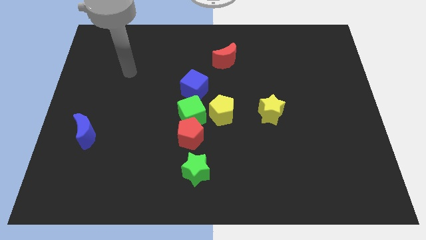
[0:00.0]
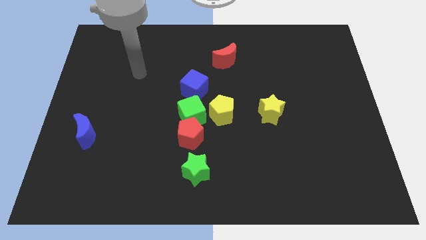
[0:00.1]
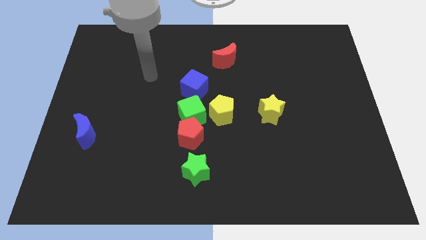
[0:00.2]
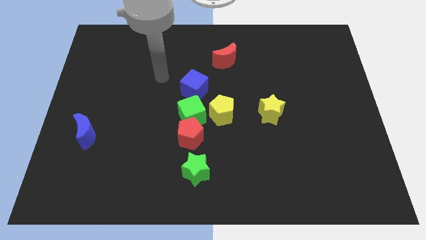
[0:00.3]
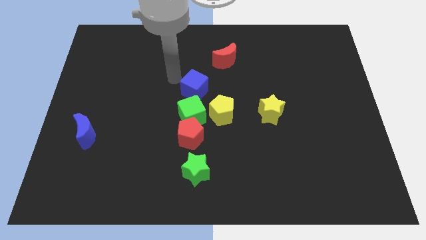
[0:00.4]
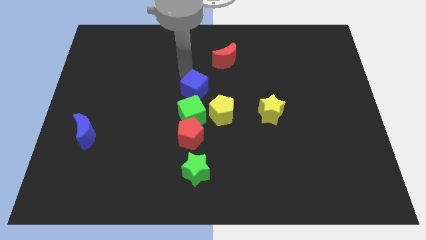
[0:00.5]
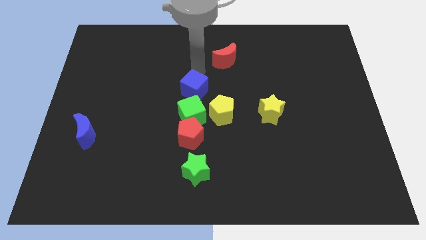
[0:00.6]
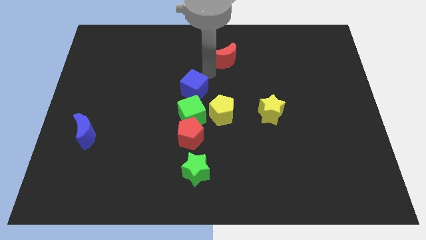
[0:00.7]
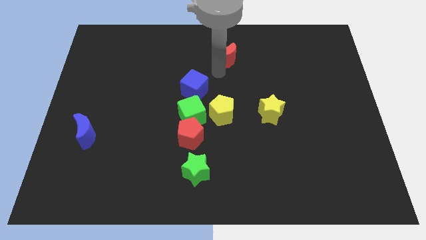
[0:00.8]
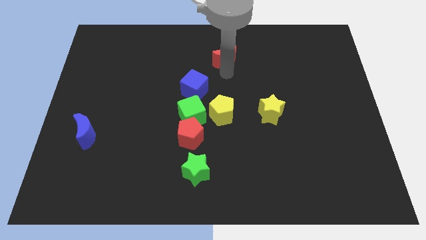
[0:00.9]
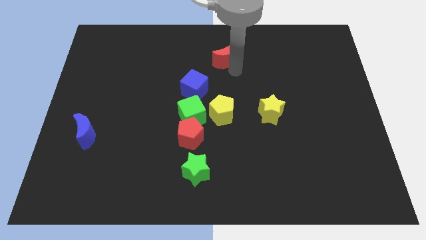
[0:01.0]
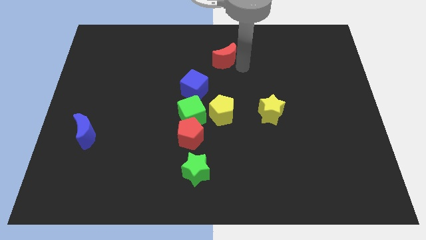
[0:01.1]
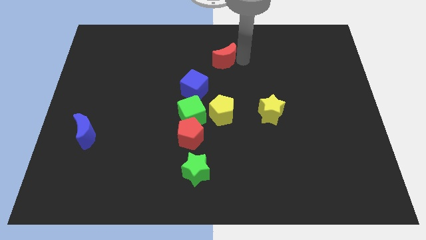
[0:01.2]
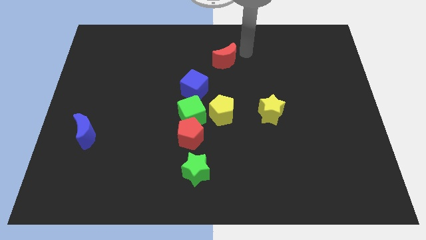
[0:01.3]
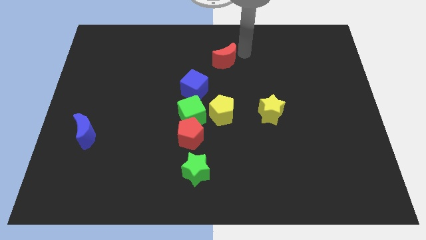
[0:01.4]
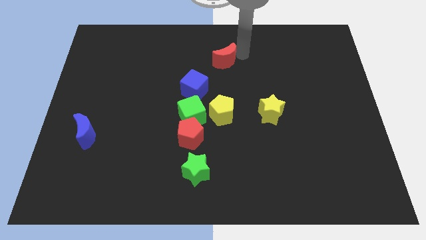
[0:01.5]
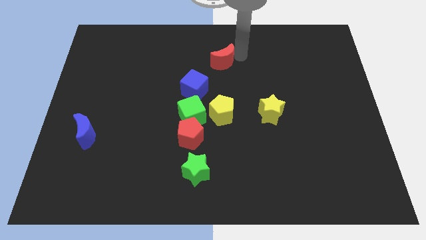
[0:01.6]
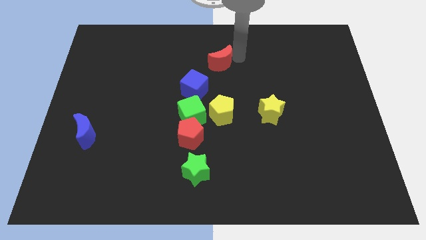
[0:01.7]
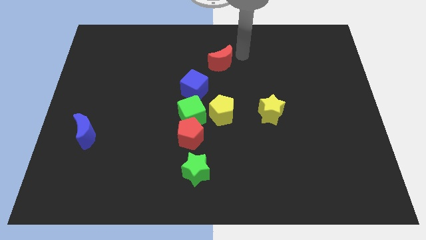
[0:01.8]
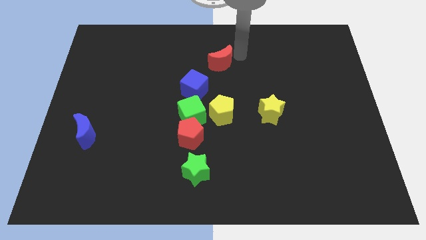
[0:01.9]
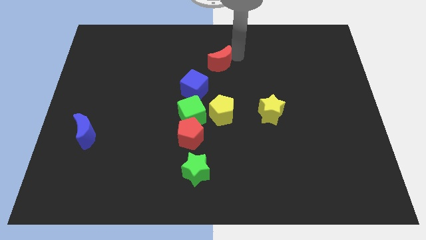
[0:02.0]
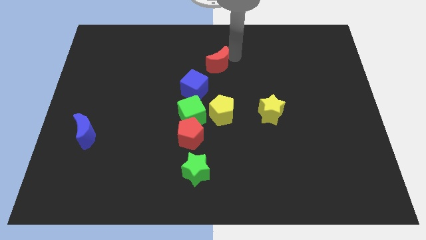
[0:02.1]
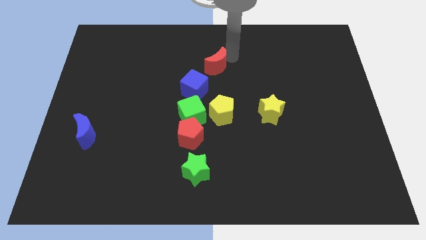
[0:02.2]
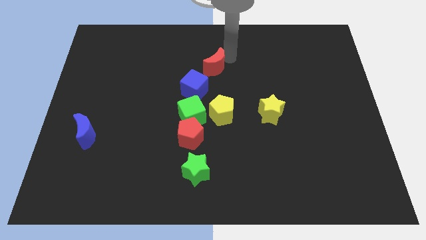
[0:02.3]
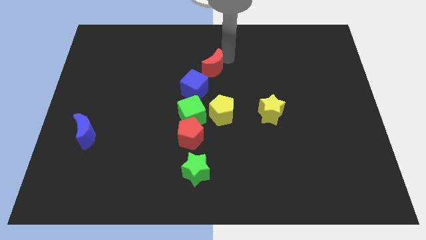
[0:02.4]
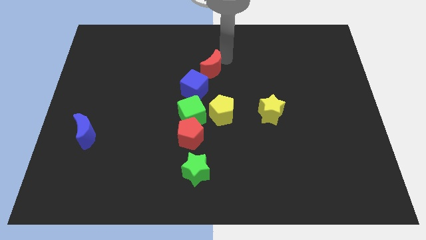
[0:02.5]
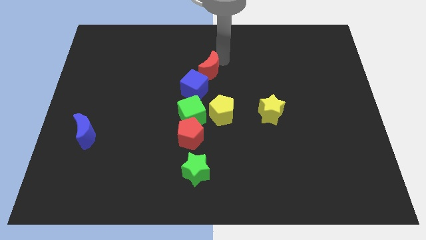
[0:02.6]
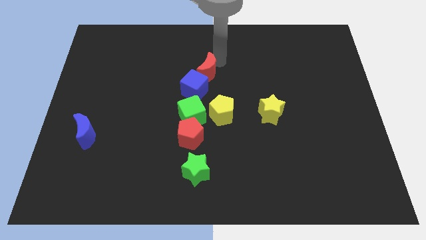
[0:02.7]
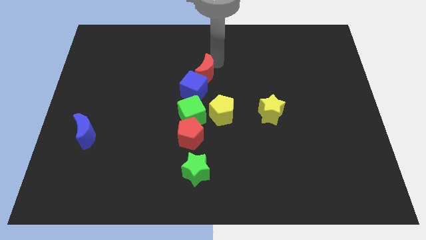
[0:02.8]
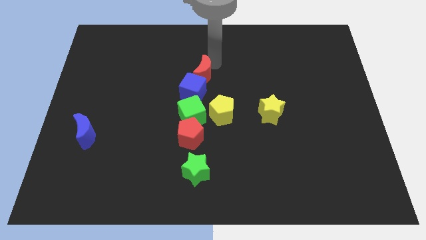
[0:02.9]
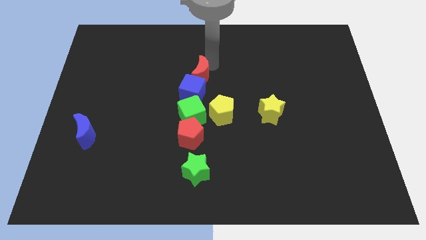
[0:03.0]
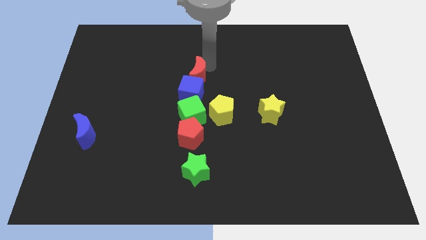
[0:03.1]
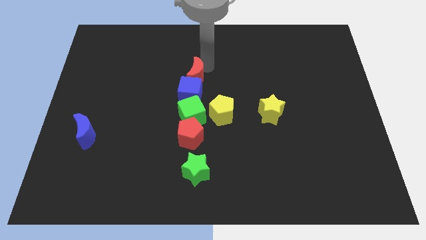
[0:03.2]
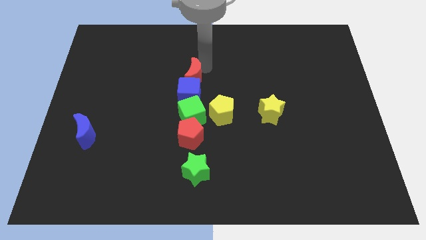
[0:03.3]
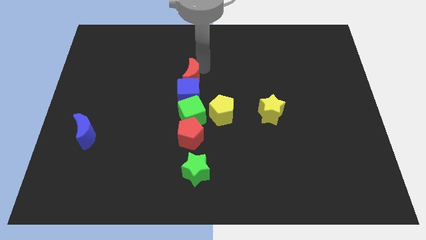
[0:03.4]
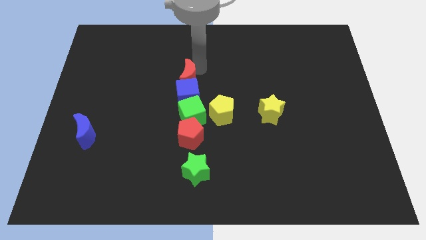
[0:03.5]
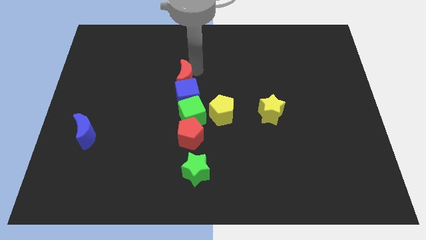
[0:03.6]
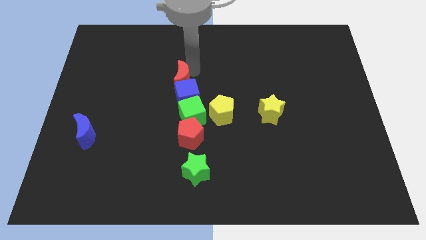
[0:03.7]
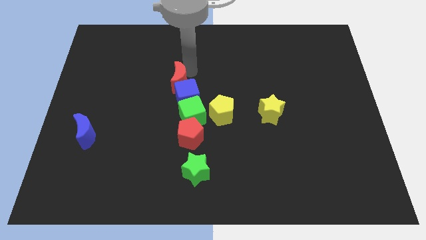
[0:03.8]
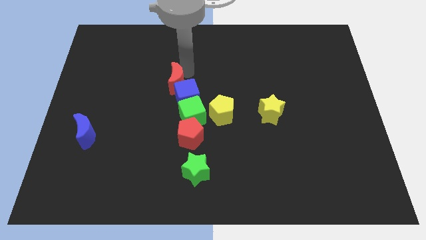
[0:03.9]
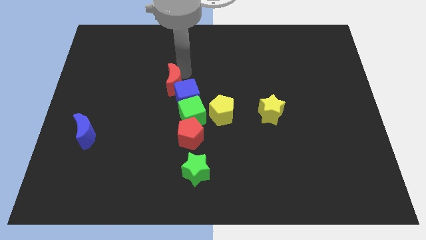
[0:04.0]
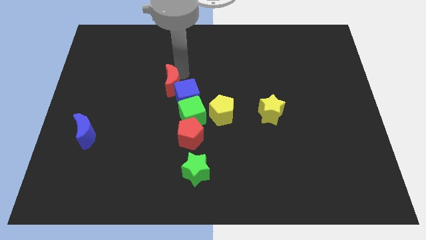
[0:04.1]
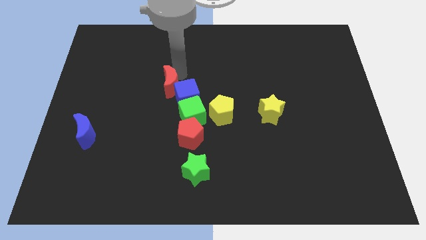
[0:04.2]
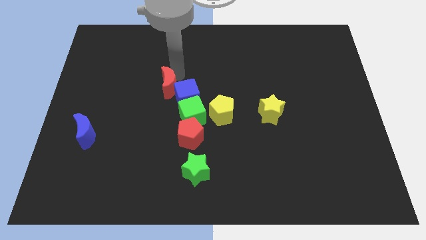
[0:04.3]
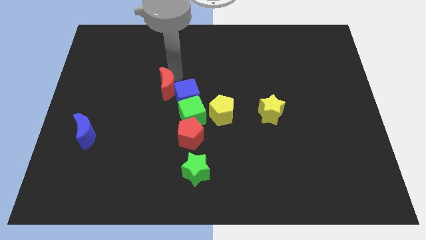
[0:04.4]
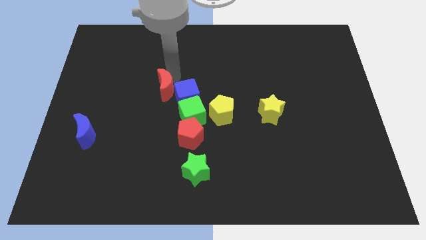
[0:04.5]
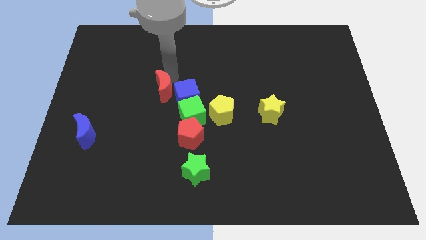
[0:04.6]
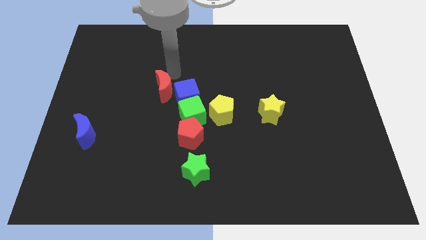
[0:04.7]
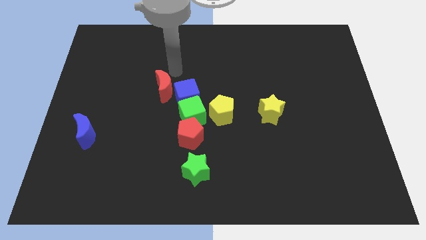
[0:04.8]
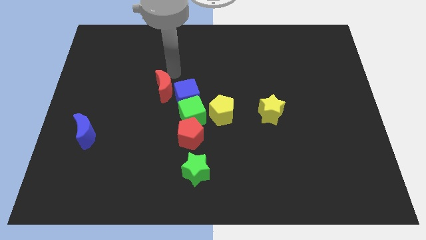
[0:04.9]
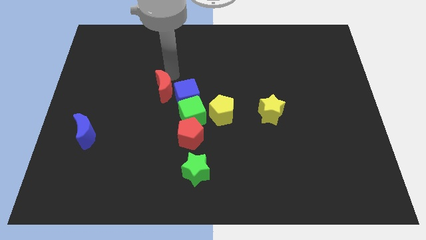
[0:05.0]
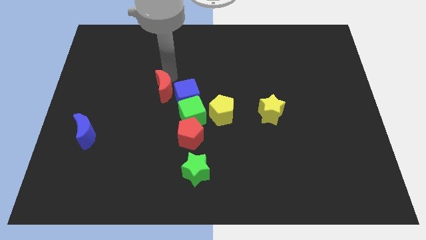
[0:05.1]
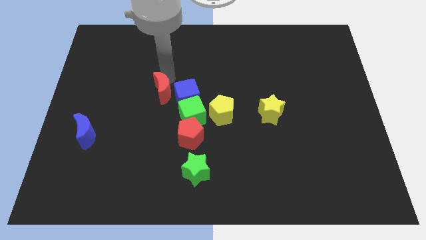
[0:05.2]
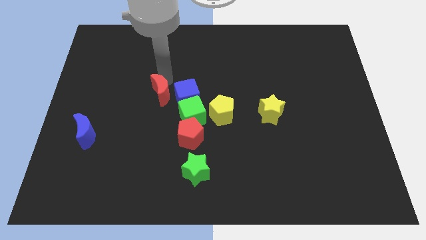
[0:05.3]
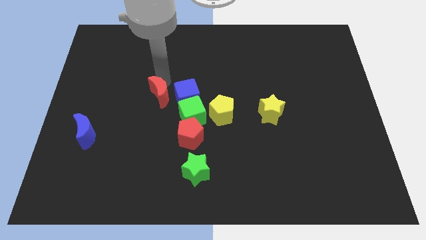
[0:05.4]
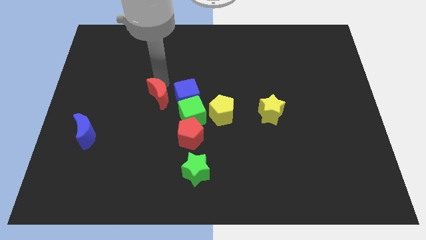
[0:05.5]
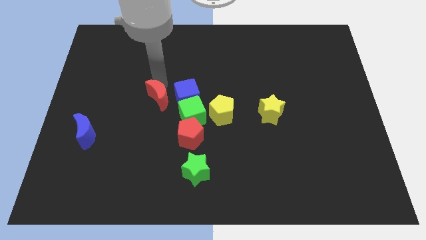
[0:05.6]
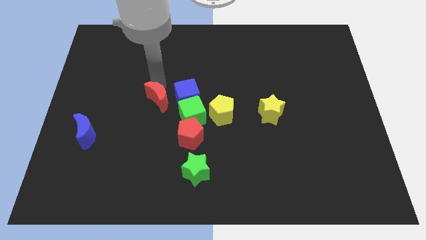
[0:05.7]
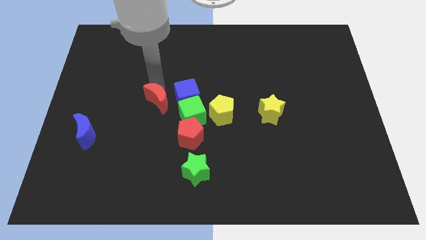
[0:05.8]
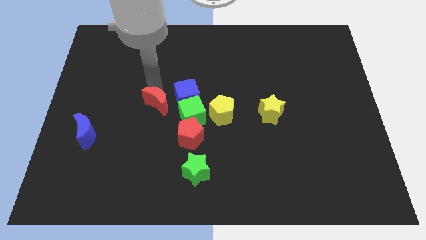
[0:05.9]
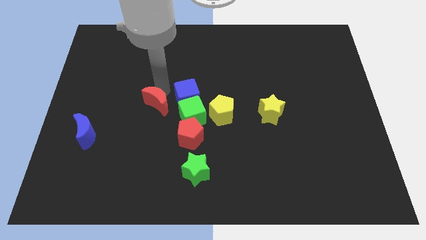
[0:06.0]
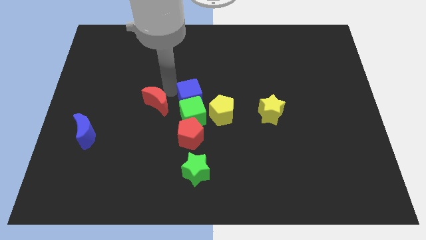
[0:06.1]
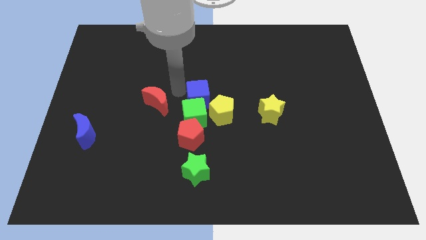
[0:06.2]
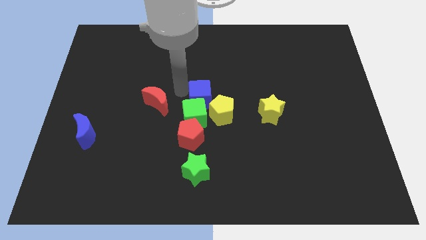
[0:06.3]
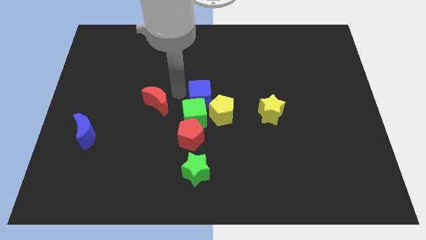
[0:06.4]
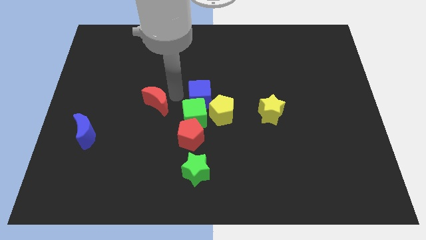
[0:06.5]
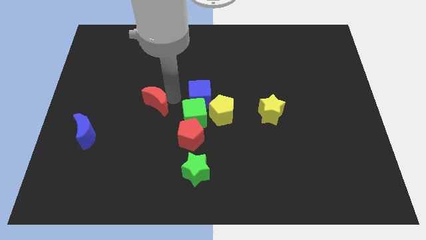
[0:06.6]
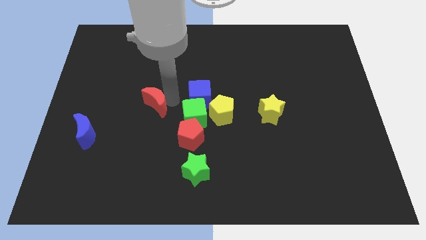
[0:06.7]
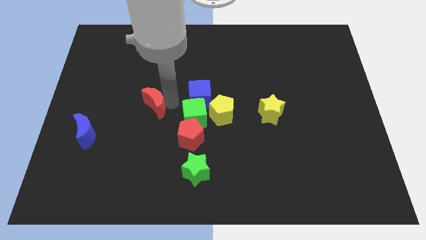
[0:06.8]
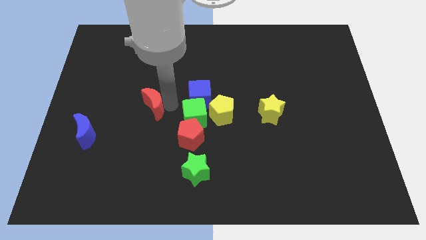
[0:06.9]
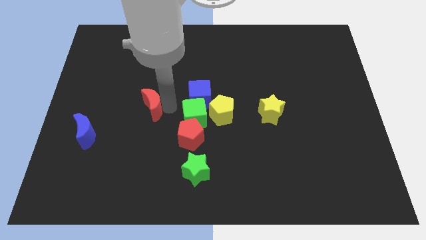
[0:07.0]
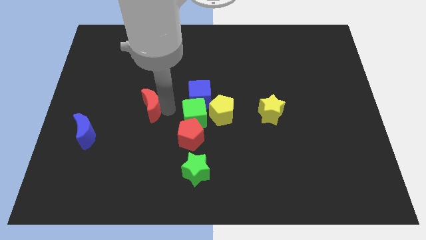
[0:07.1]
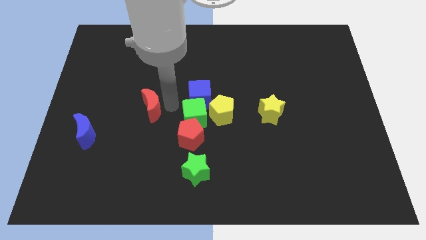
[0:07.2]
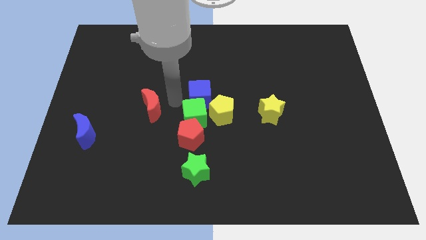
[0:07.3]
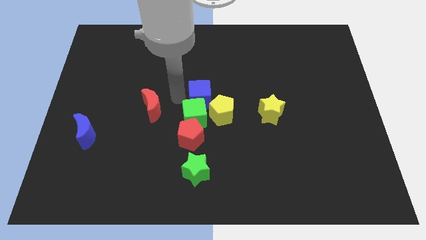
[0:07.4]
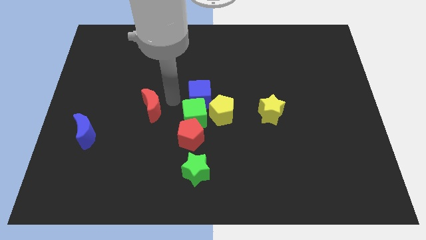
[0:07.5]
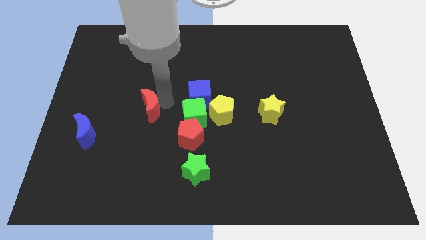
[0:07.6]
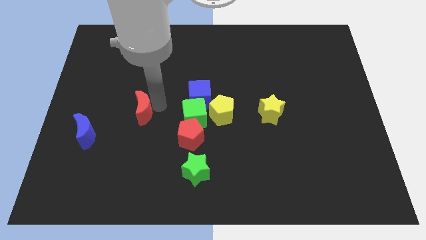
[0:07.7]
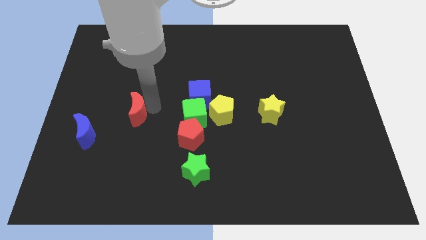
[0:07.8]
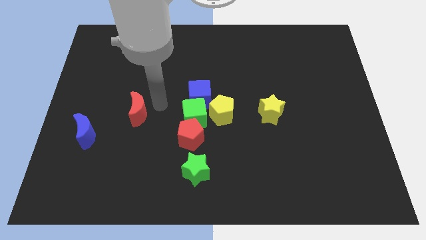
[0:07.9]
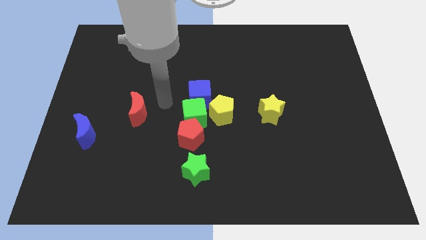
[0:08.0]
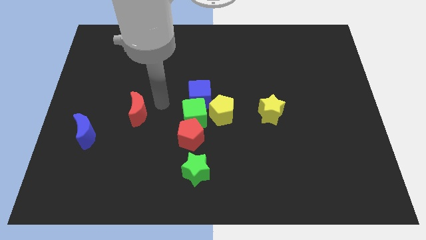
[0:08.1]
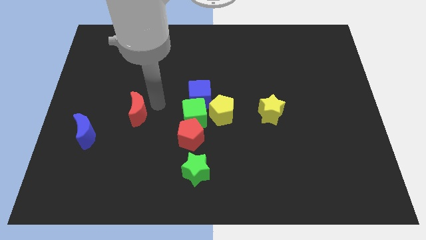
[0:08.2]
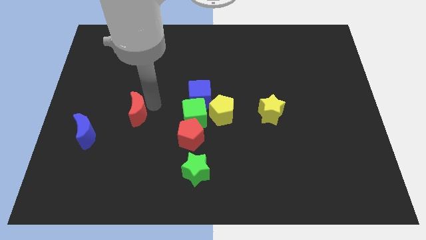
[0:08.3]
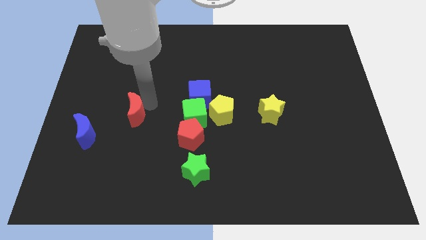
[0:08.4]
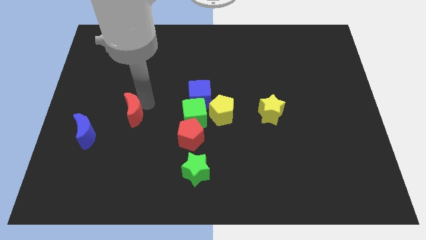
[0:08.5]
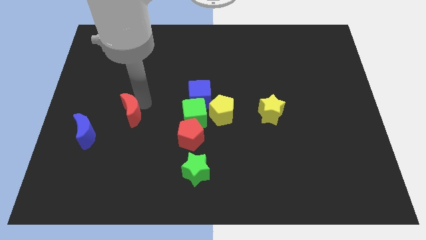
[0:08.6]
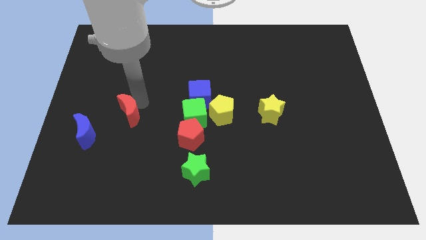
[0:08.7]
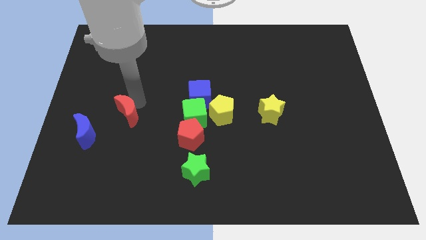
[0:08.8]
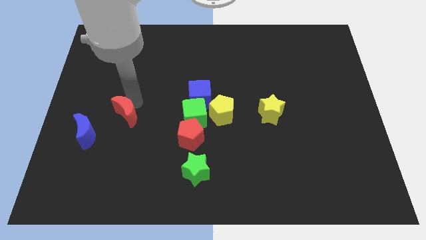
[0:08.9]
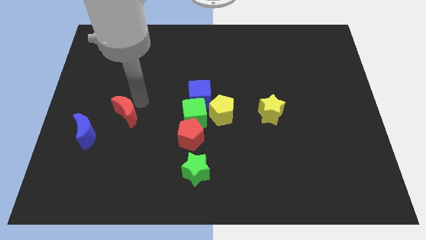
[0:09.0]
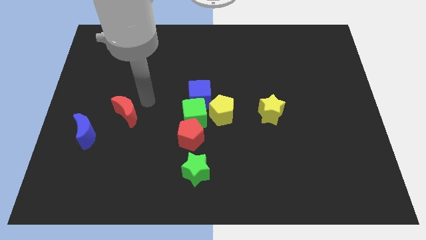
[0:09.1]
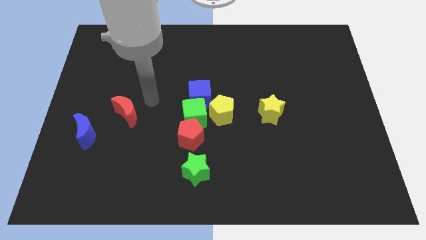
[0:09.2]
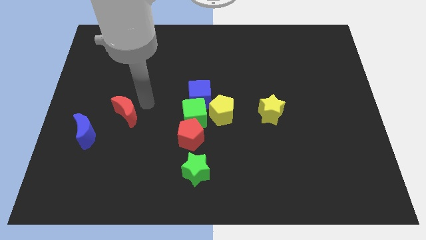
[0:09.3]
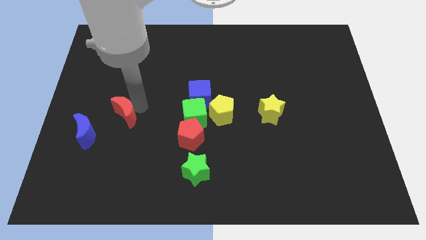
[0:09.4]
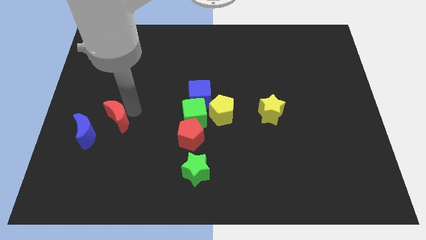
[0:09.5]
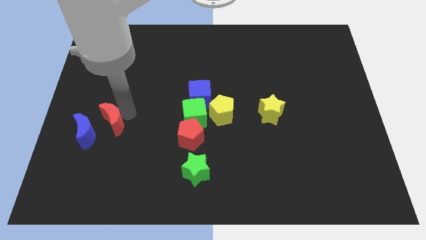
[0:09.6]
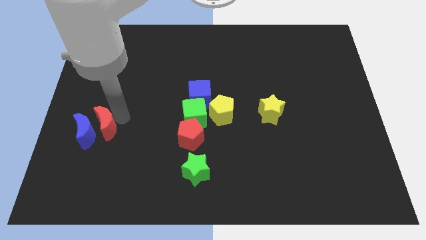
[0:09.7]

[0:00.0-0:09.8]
slide the red moon close to the blue moon
